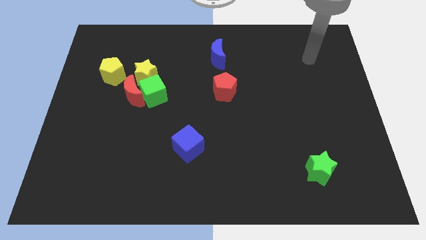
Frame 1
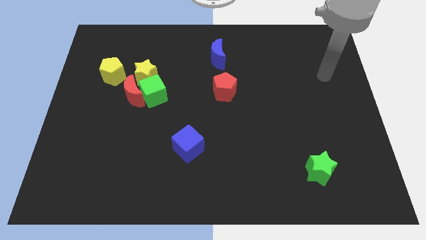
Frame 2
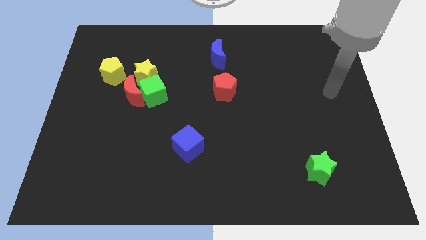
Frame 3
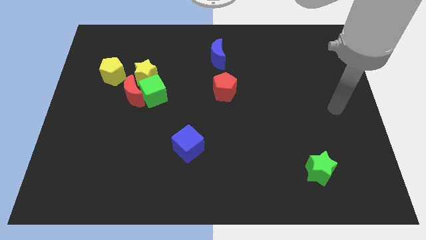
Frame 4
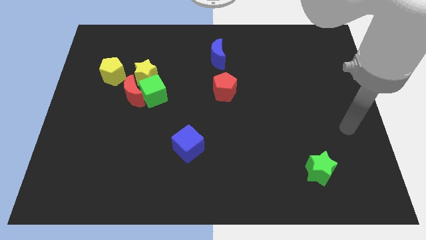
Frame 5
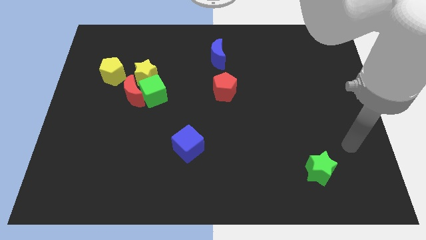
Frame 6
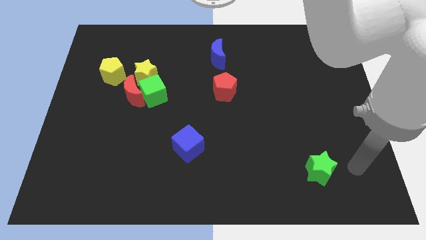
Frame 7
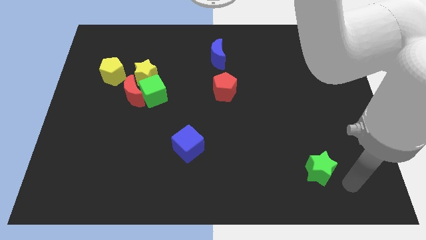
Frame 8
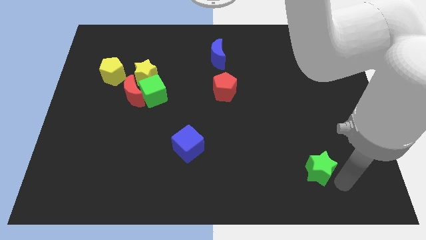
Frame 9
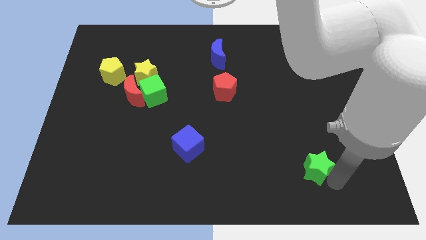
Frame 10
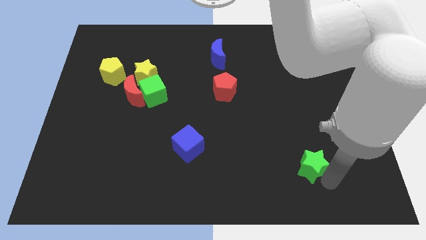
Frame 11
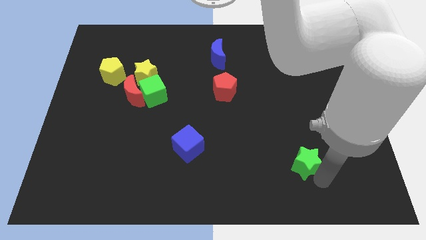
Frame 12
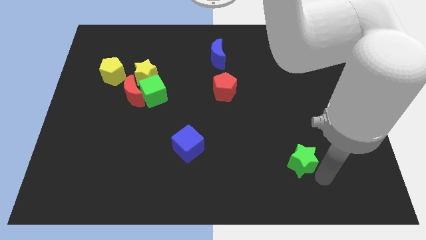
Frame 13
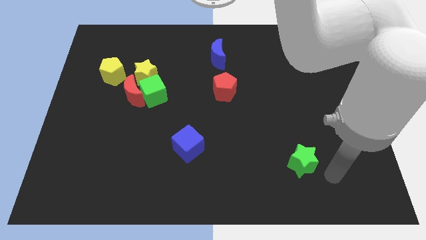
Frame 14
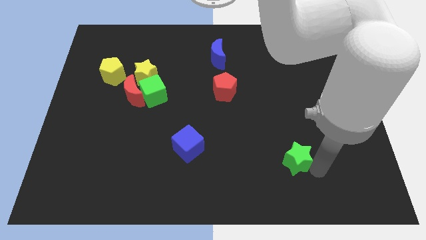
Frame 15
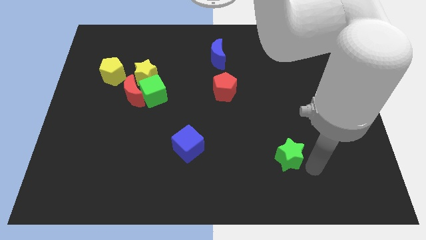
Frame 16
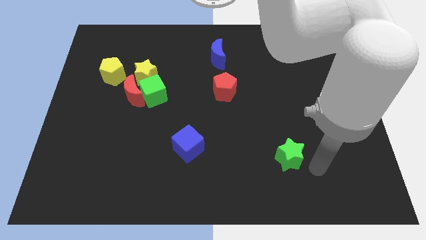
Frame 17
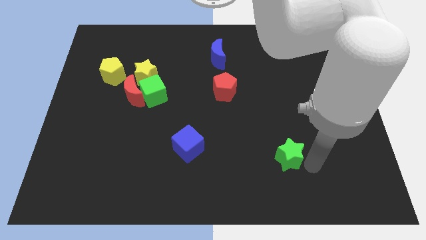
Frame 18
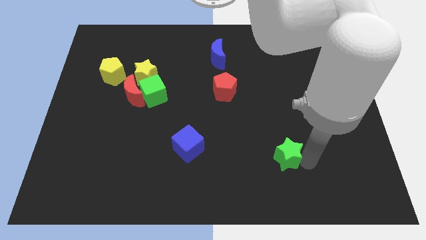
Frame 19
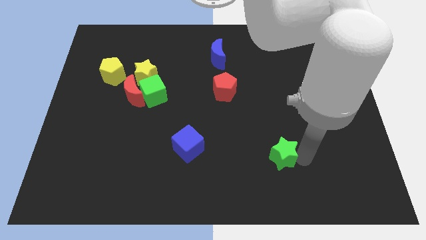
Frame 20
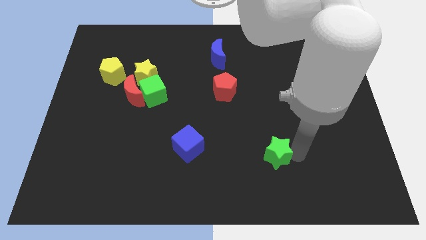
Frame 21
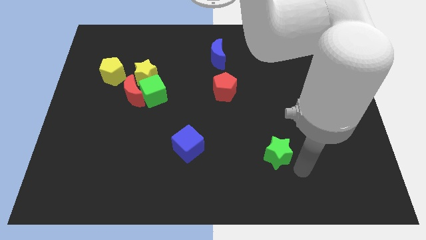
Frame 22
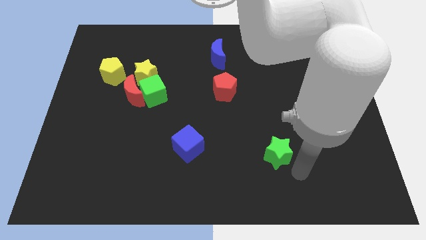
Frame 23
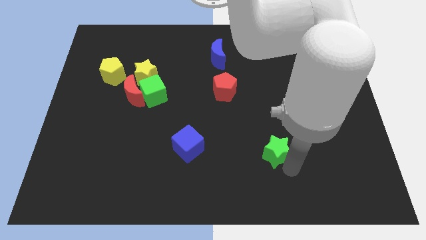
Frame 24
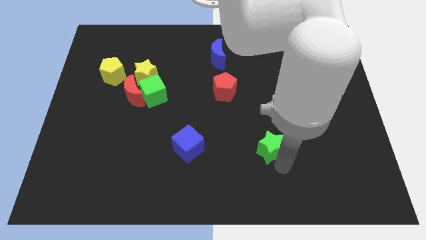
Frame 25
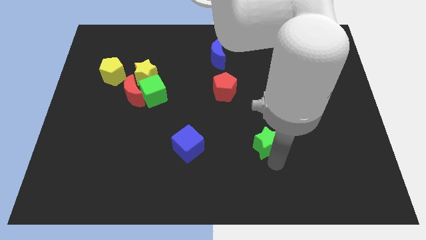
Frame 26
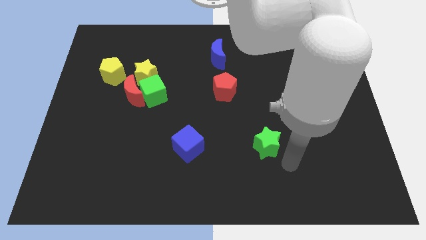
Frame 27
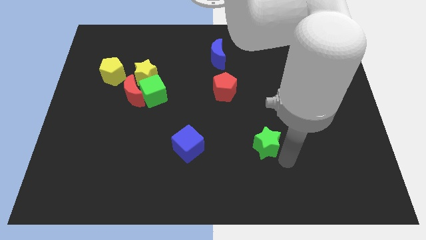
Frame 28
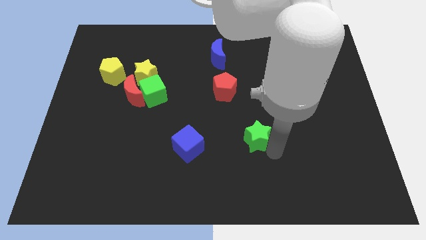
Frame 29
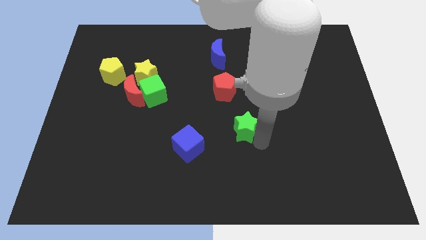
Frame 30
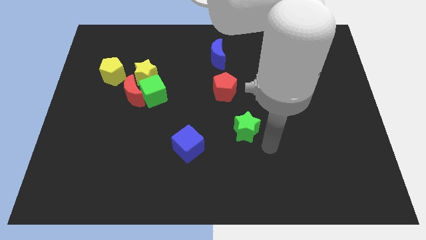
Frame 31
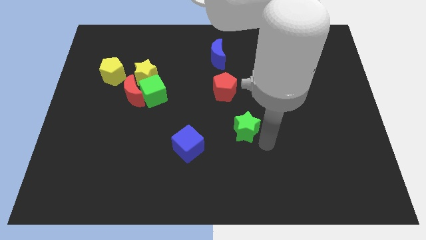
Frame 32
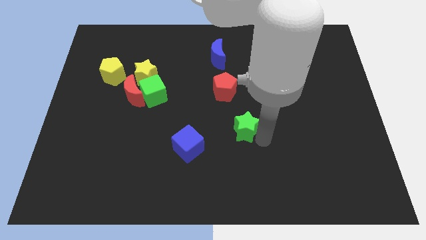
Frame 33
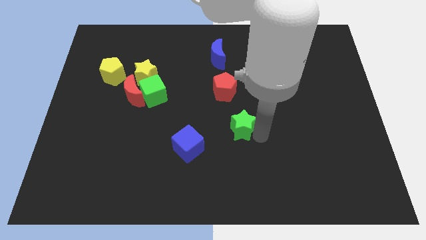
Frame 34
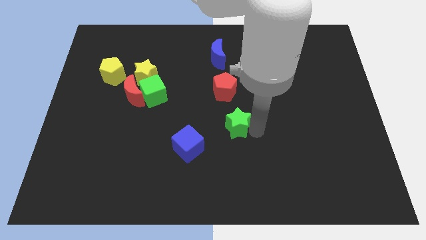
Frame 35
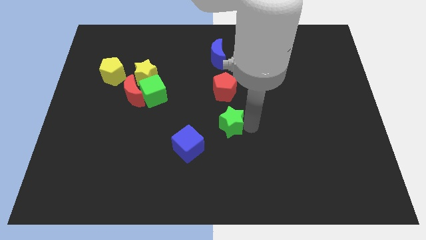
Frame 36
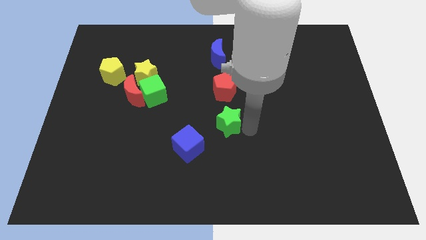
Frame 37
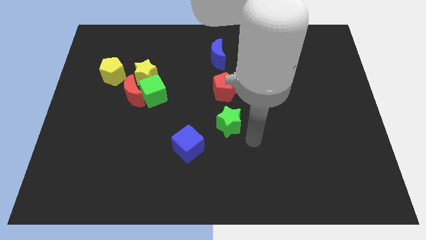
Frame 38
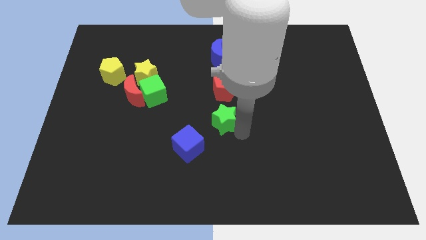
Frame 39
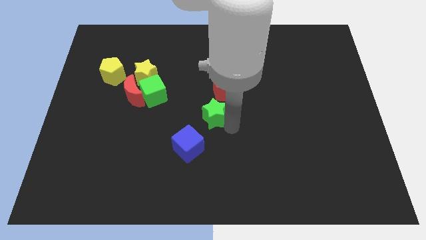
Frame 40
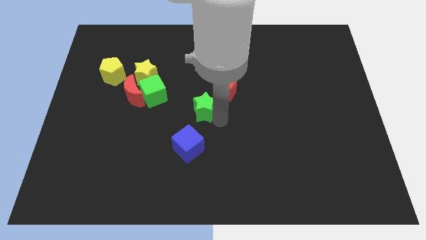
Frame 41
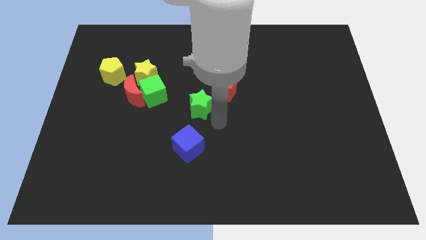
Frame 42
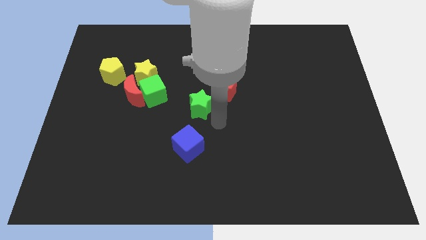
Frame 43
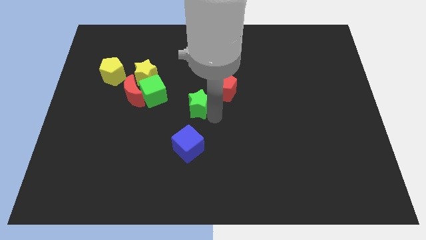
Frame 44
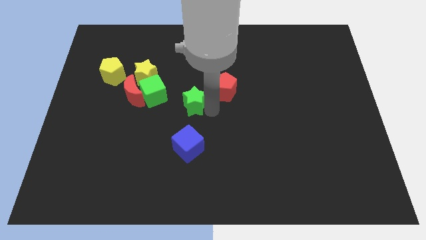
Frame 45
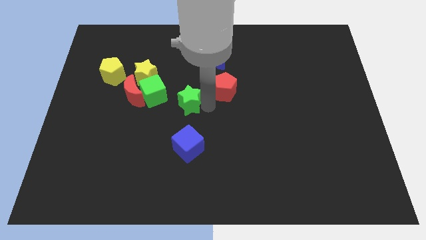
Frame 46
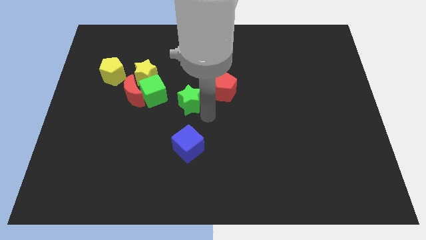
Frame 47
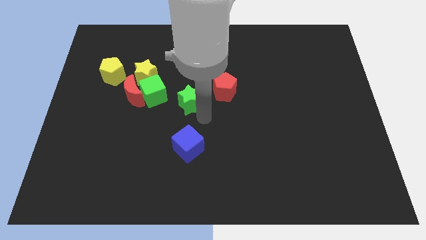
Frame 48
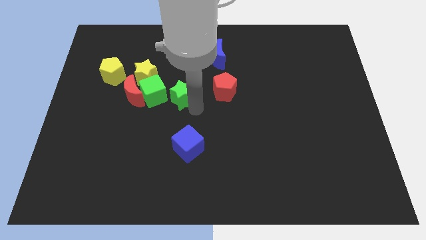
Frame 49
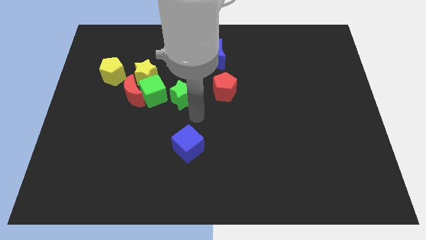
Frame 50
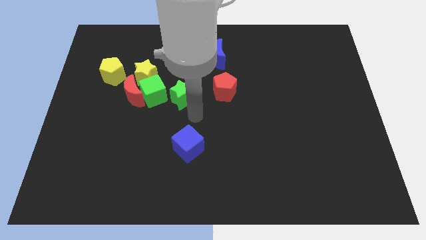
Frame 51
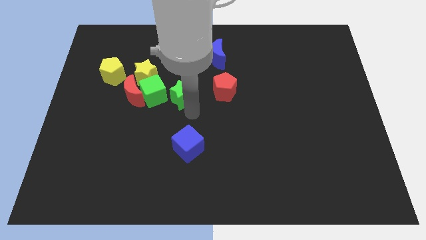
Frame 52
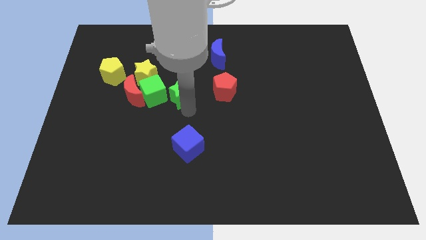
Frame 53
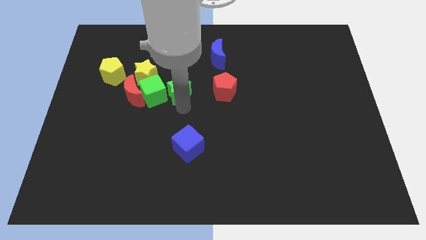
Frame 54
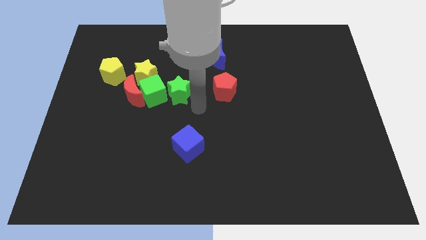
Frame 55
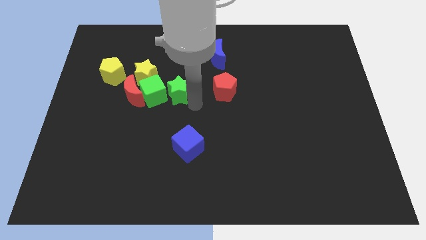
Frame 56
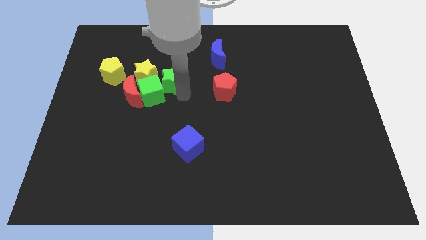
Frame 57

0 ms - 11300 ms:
push the green star to the top right side of the red moon

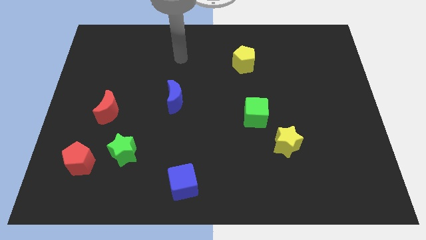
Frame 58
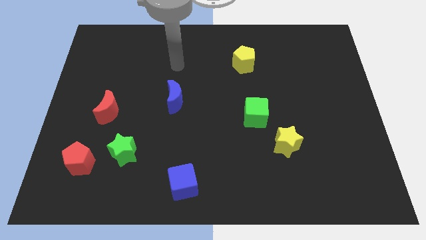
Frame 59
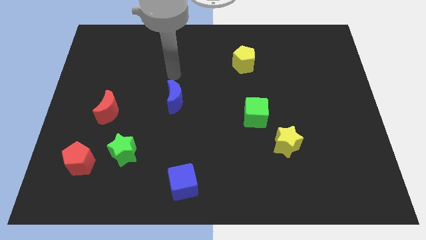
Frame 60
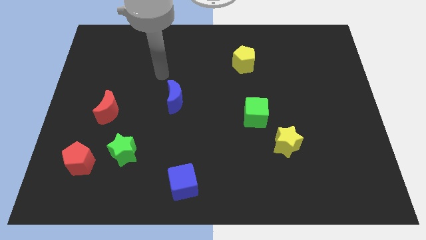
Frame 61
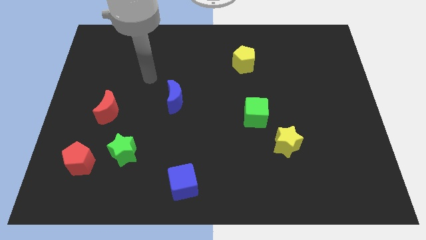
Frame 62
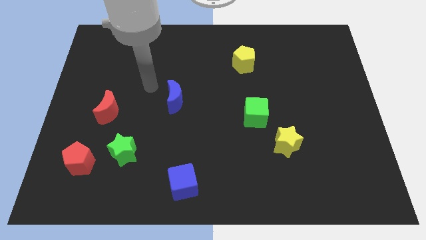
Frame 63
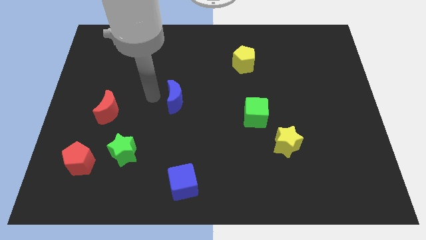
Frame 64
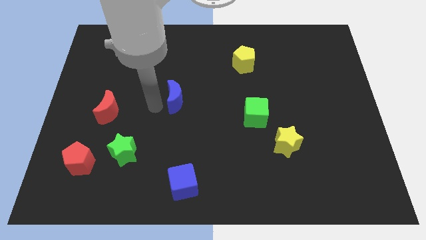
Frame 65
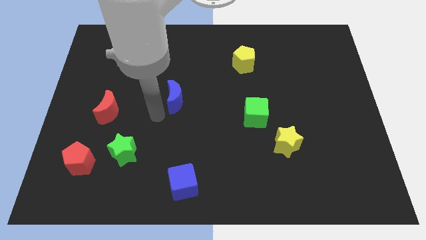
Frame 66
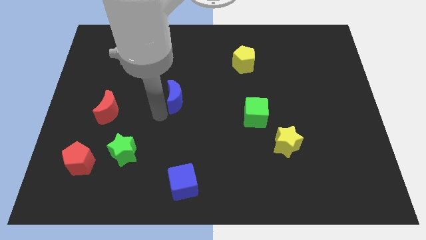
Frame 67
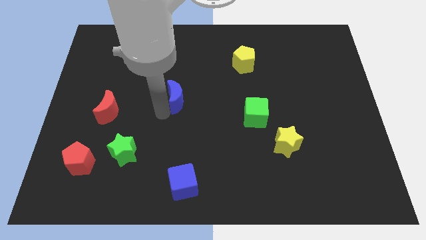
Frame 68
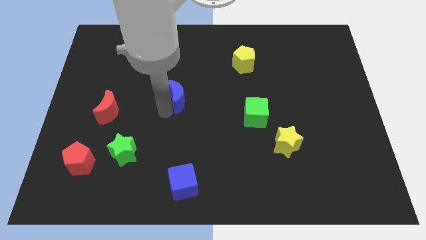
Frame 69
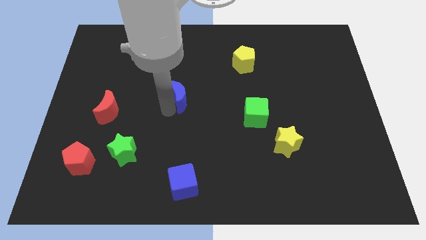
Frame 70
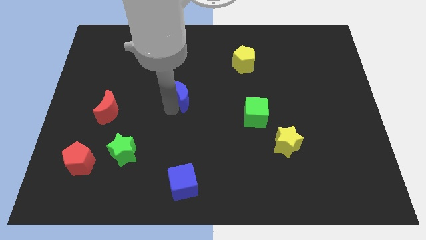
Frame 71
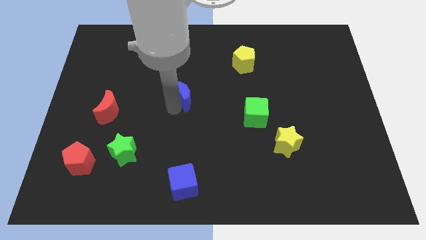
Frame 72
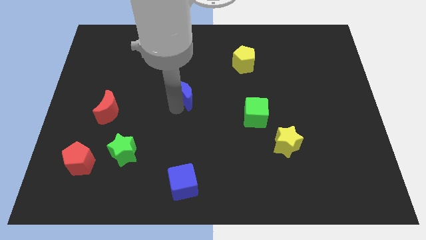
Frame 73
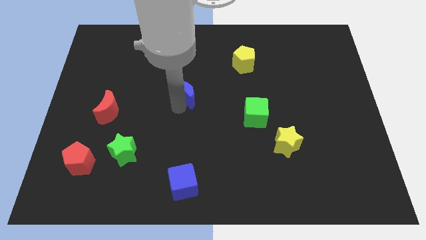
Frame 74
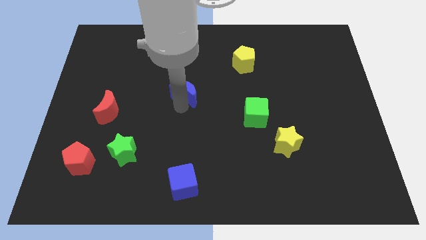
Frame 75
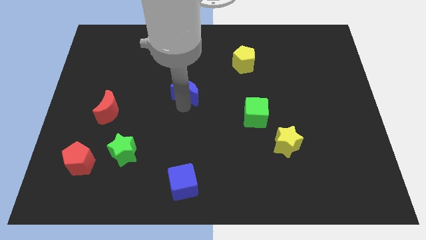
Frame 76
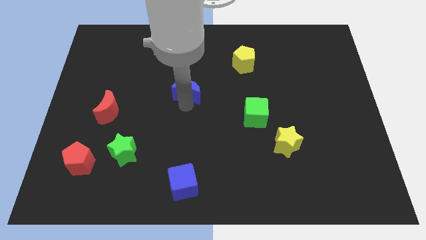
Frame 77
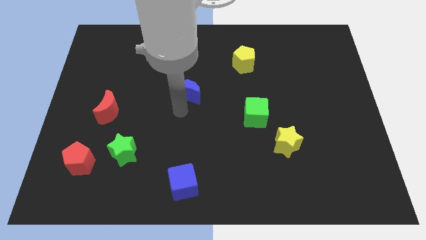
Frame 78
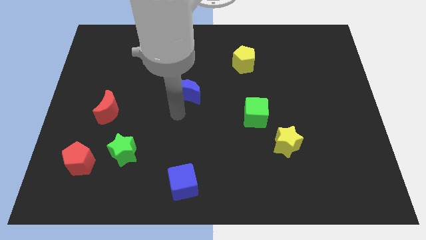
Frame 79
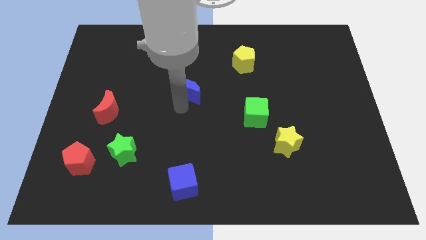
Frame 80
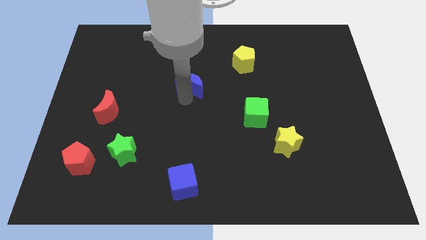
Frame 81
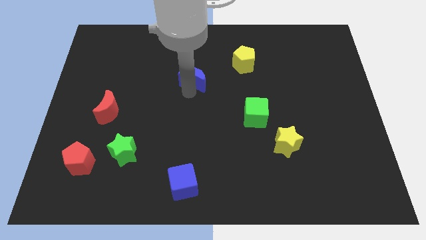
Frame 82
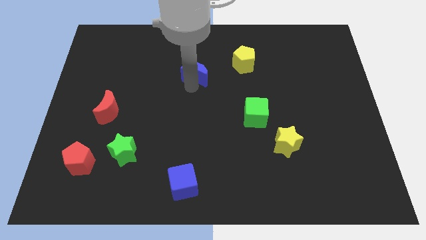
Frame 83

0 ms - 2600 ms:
move the blue moon left of the yellow pentagon
